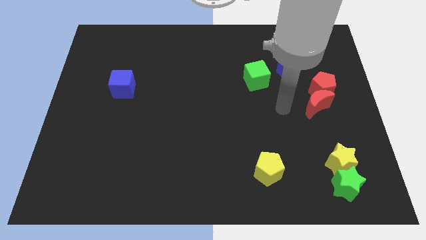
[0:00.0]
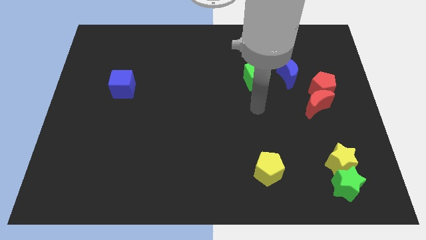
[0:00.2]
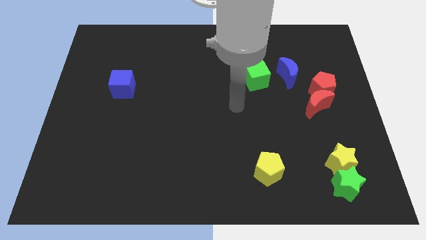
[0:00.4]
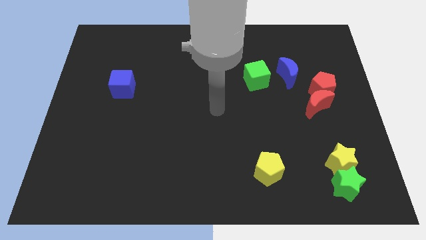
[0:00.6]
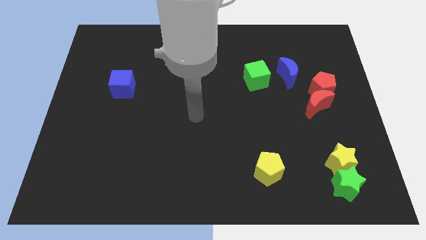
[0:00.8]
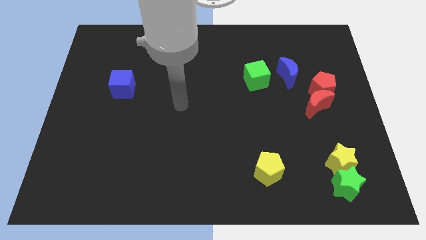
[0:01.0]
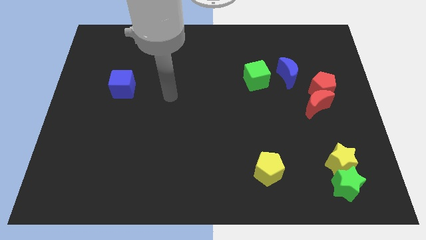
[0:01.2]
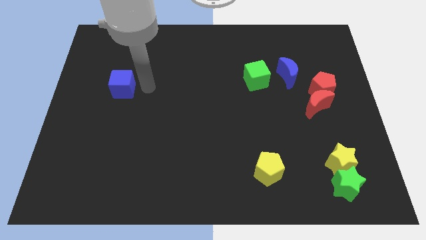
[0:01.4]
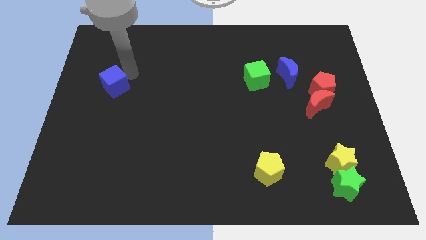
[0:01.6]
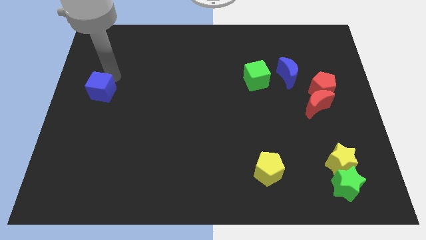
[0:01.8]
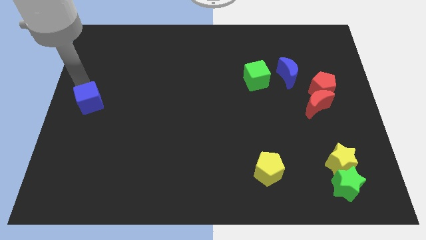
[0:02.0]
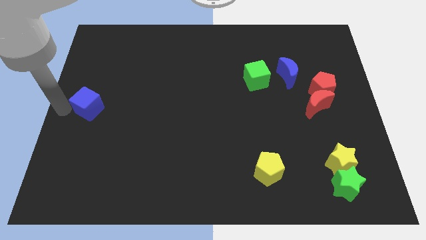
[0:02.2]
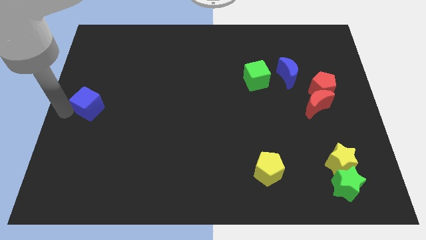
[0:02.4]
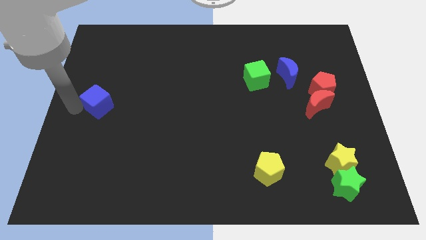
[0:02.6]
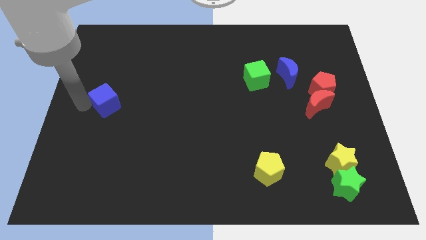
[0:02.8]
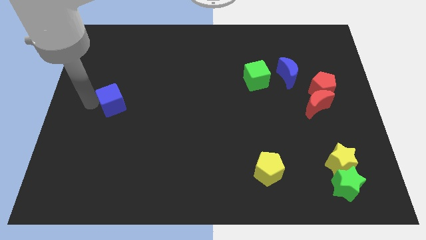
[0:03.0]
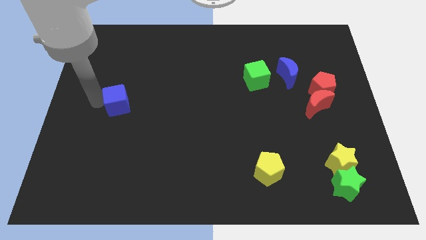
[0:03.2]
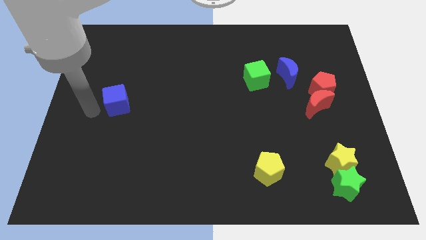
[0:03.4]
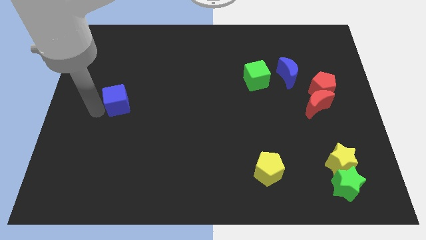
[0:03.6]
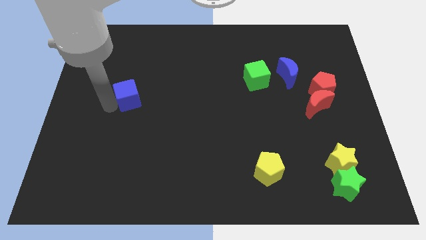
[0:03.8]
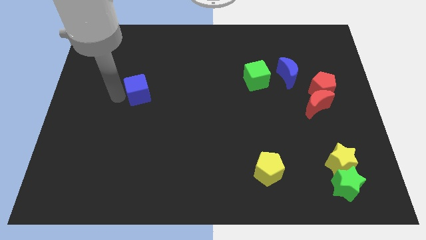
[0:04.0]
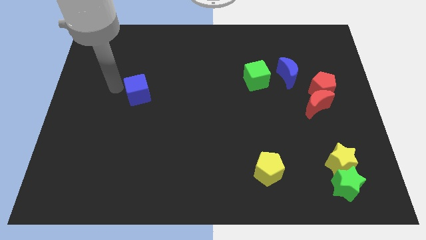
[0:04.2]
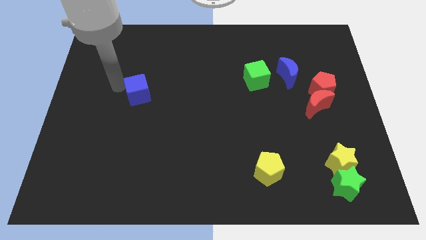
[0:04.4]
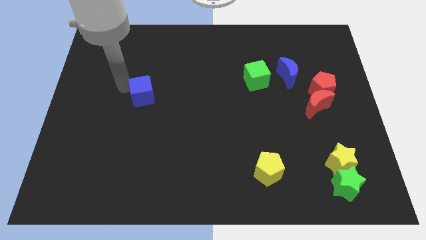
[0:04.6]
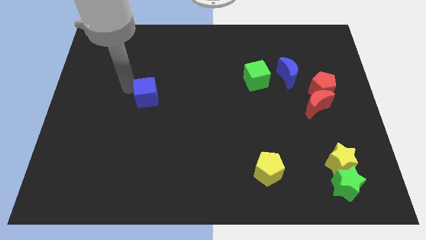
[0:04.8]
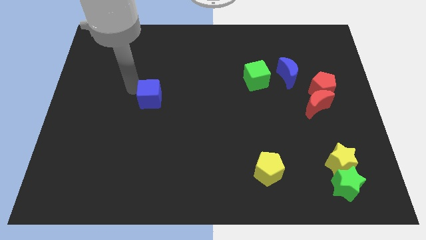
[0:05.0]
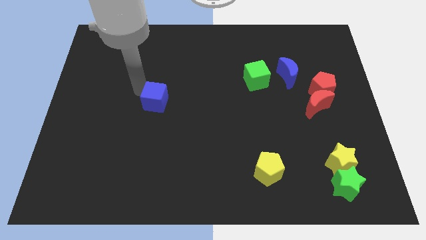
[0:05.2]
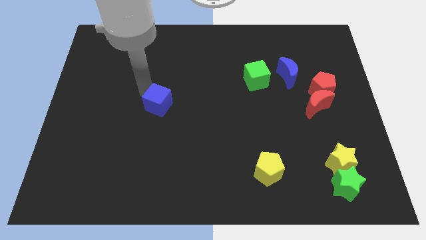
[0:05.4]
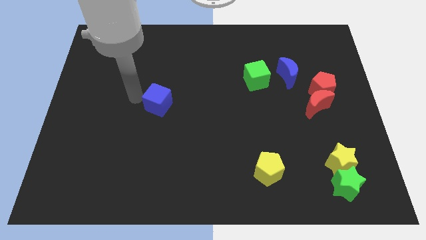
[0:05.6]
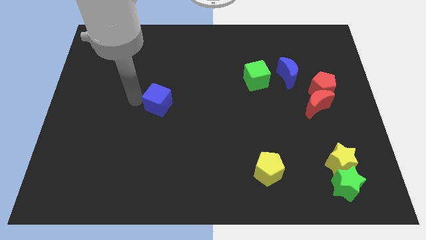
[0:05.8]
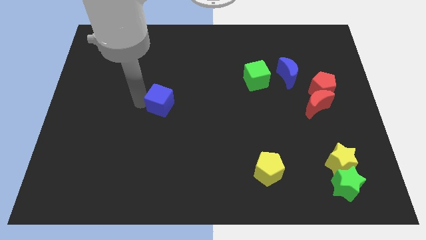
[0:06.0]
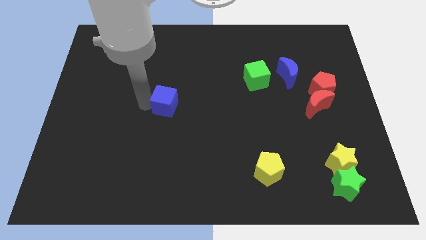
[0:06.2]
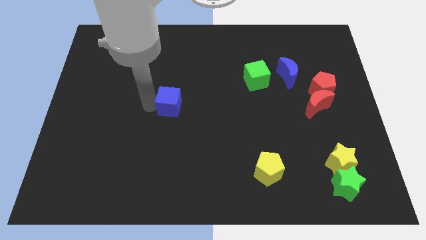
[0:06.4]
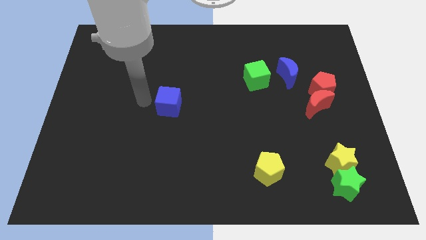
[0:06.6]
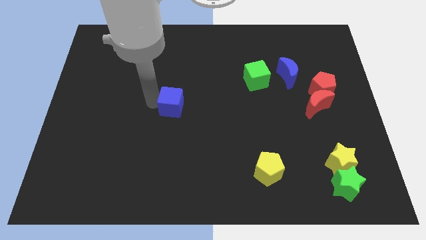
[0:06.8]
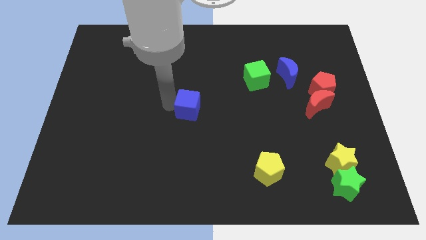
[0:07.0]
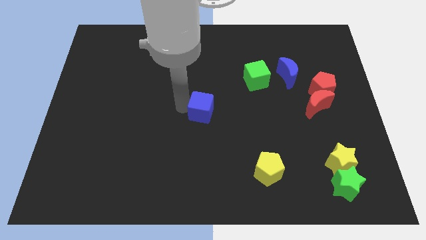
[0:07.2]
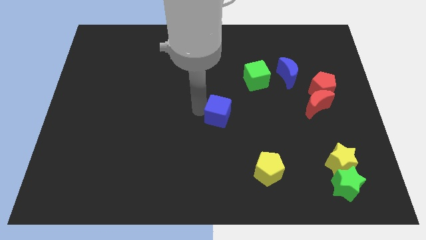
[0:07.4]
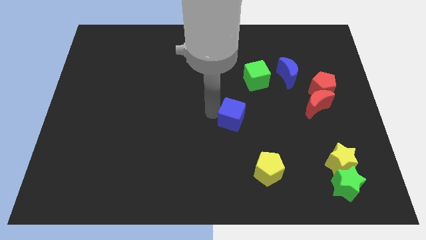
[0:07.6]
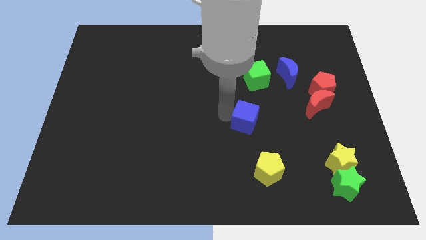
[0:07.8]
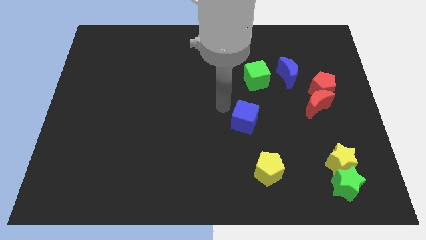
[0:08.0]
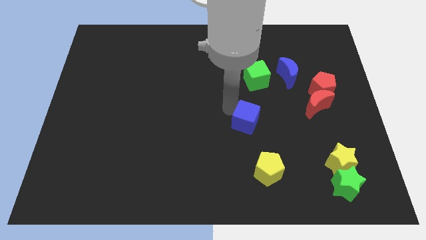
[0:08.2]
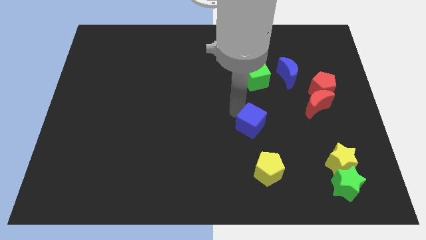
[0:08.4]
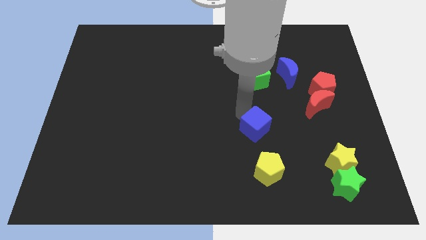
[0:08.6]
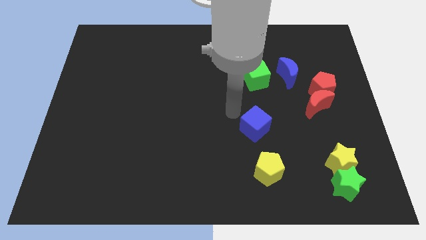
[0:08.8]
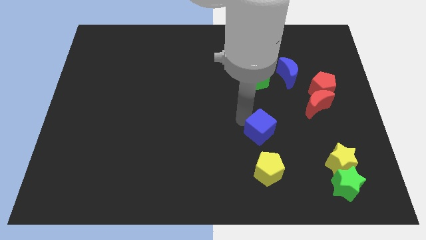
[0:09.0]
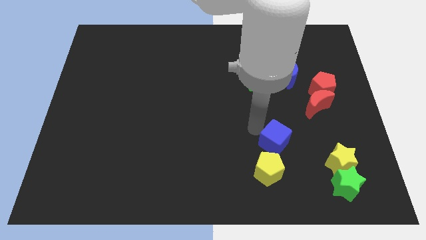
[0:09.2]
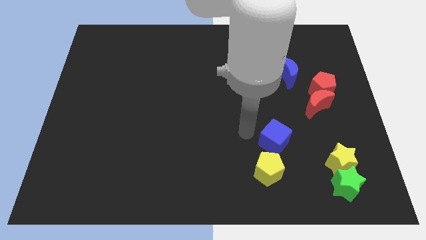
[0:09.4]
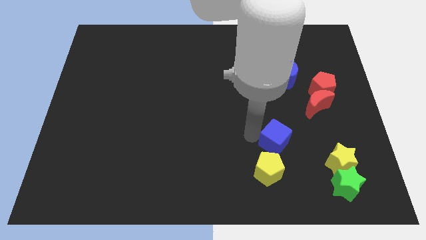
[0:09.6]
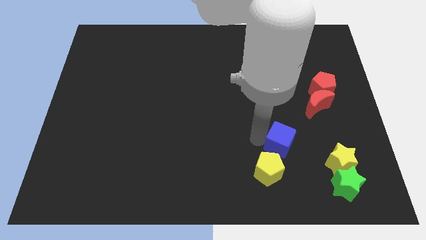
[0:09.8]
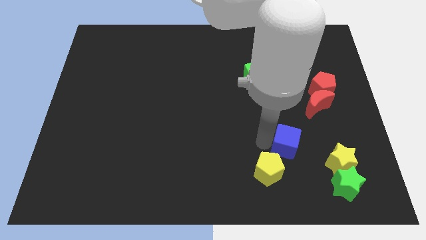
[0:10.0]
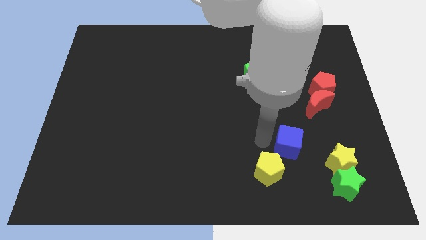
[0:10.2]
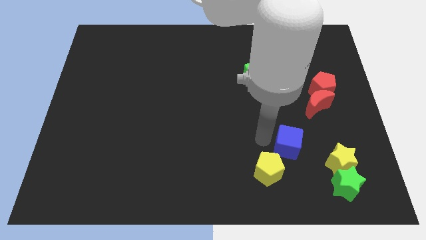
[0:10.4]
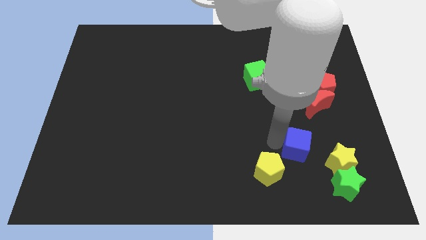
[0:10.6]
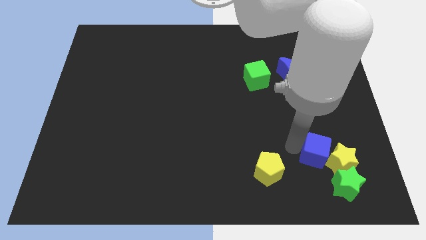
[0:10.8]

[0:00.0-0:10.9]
push the blue cube towards the yellow star

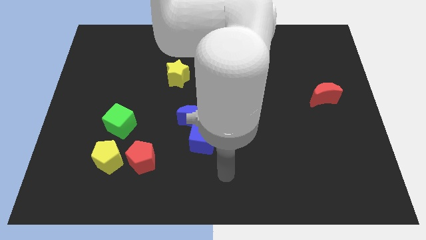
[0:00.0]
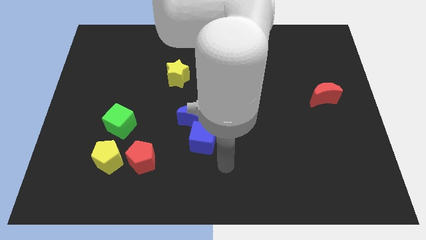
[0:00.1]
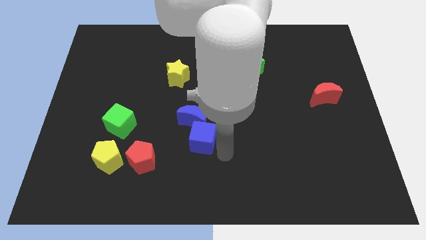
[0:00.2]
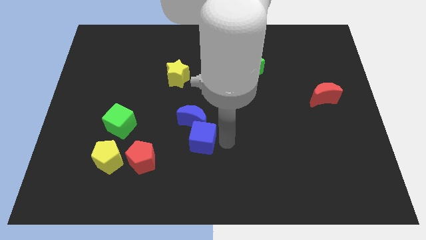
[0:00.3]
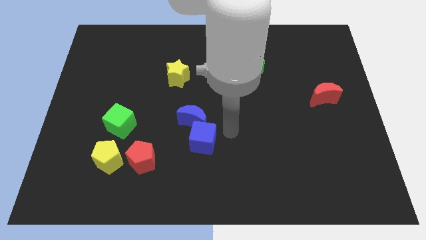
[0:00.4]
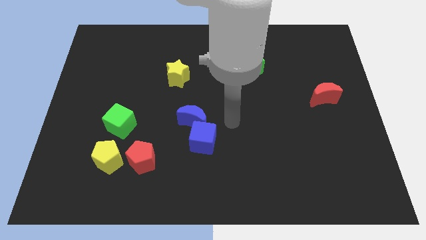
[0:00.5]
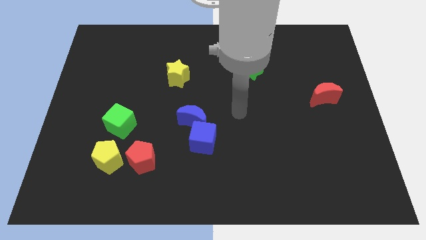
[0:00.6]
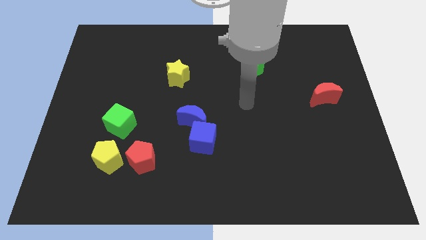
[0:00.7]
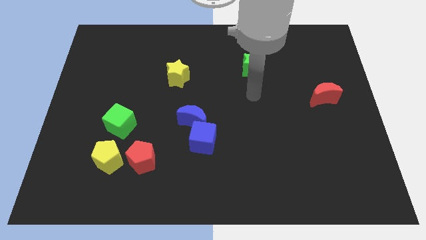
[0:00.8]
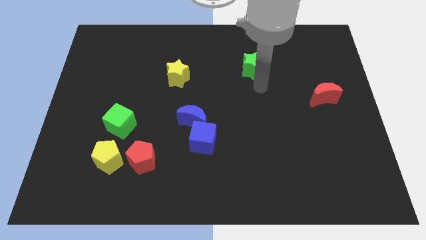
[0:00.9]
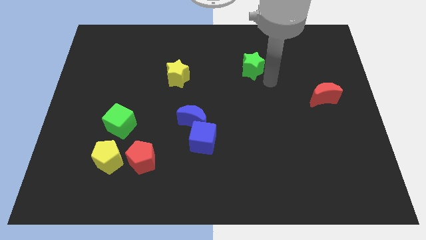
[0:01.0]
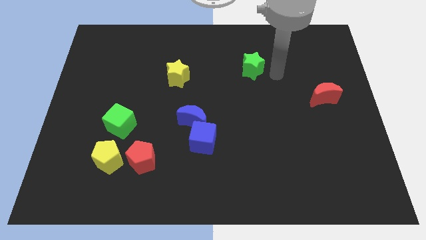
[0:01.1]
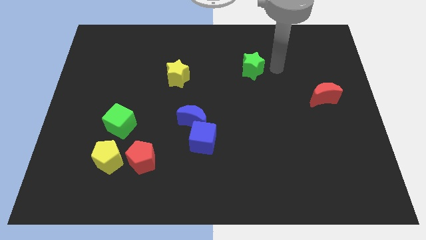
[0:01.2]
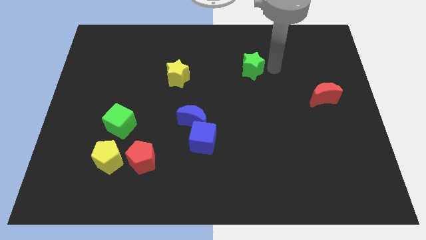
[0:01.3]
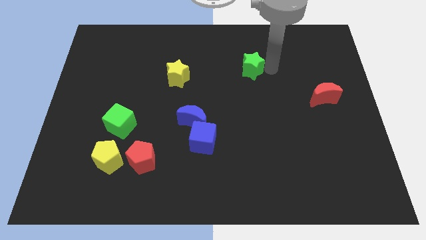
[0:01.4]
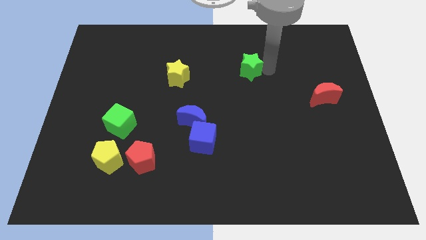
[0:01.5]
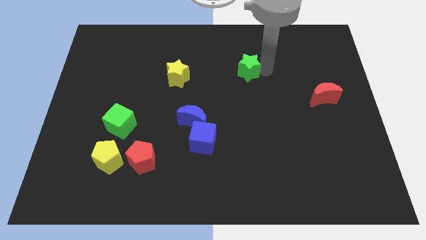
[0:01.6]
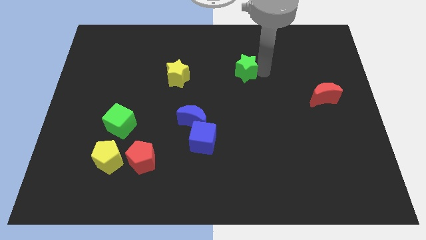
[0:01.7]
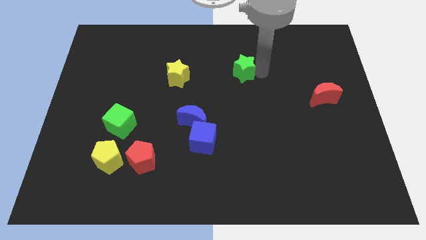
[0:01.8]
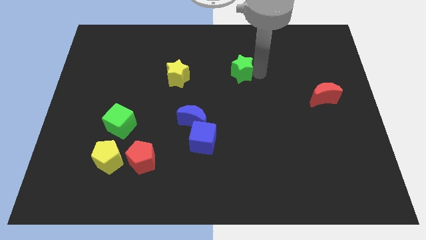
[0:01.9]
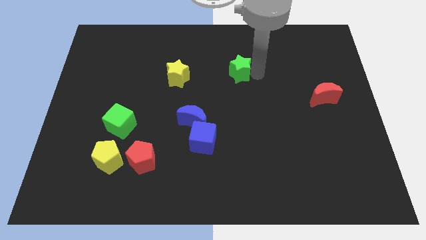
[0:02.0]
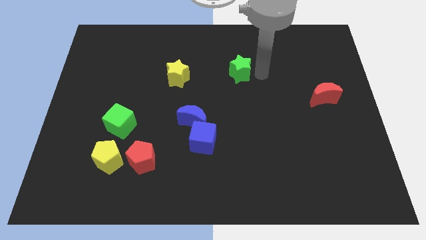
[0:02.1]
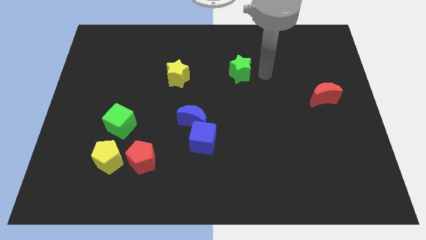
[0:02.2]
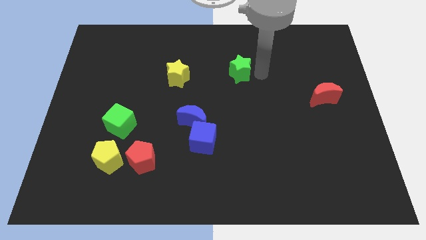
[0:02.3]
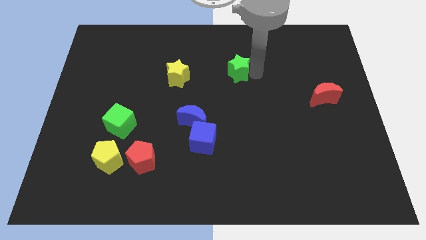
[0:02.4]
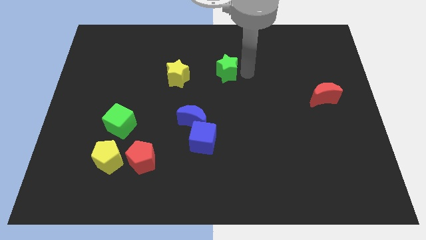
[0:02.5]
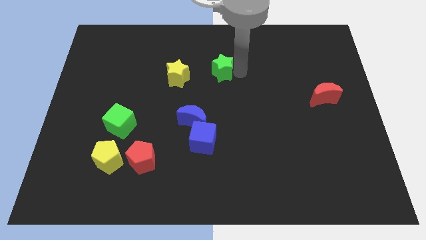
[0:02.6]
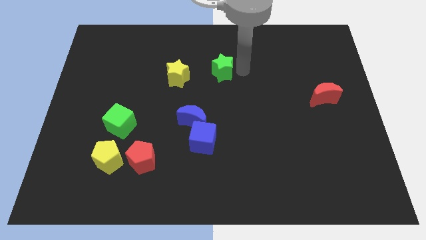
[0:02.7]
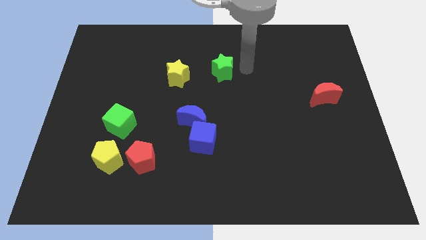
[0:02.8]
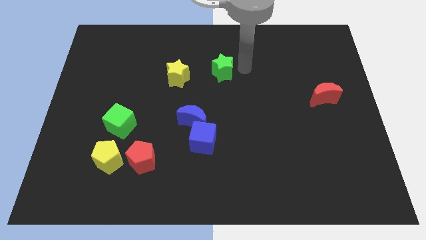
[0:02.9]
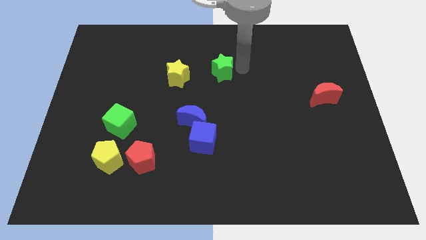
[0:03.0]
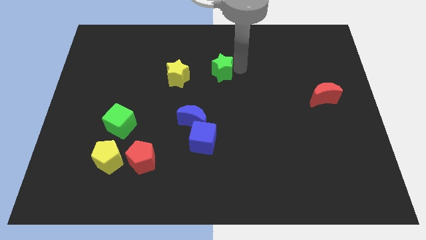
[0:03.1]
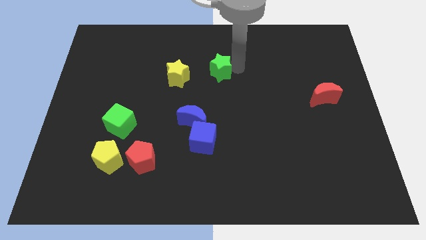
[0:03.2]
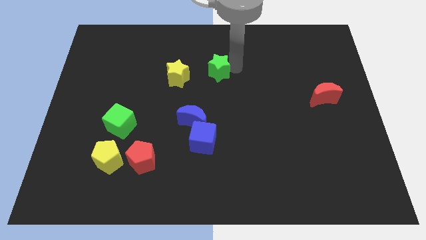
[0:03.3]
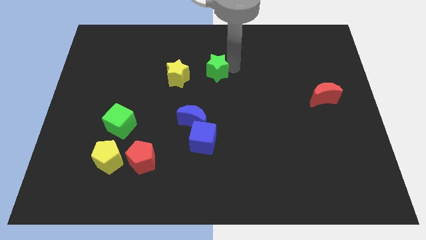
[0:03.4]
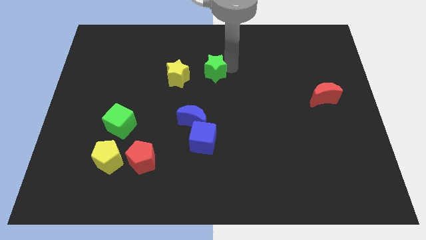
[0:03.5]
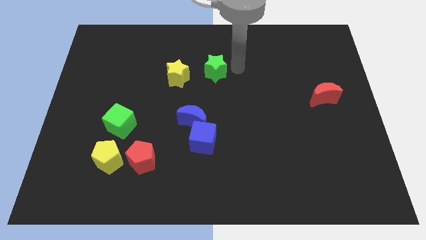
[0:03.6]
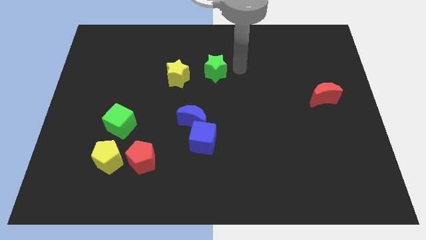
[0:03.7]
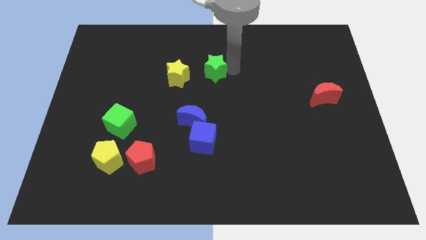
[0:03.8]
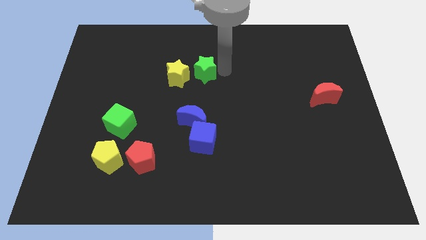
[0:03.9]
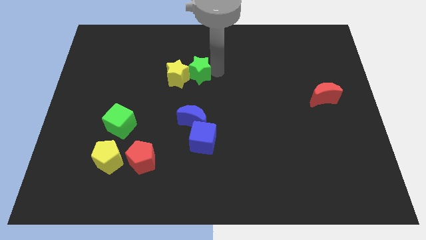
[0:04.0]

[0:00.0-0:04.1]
move the green star close to the yellow star
